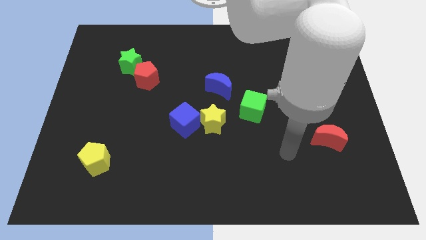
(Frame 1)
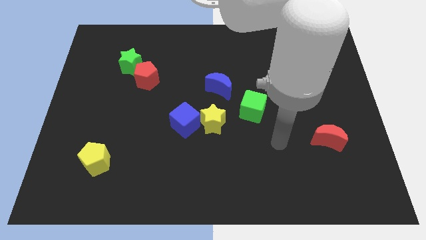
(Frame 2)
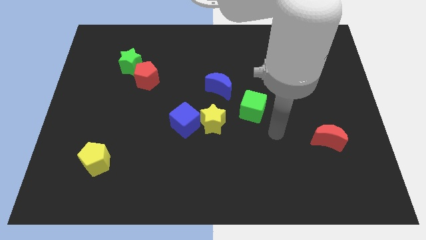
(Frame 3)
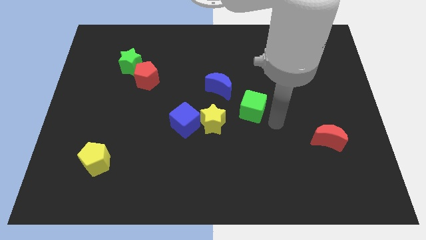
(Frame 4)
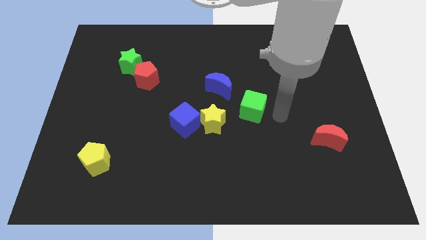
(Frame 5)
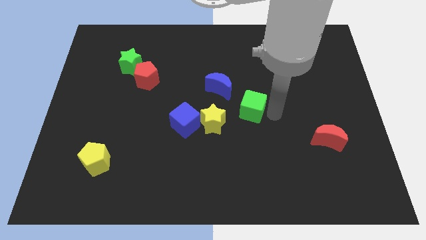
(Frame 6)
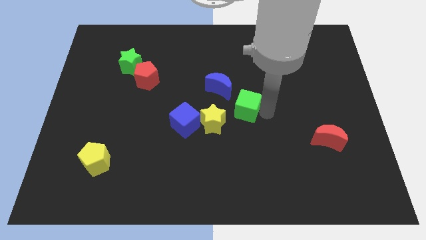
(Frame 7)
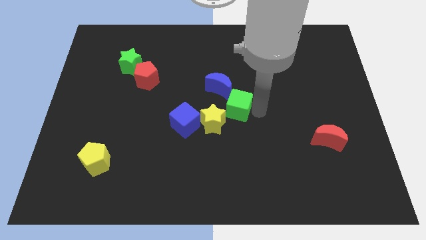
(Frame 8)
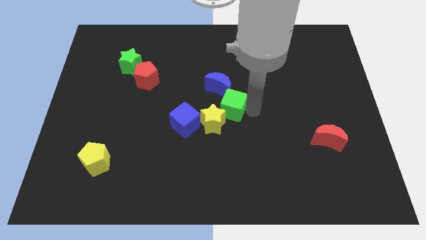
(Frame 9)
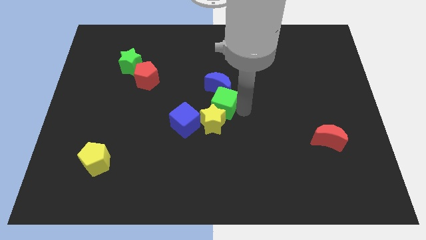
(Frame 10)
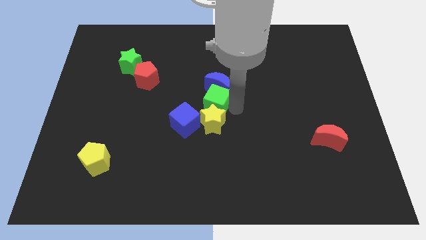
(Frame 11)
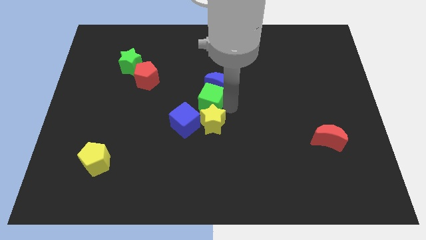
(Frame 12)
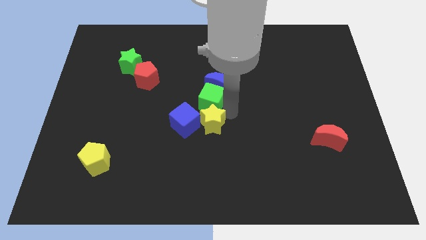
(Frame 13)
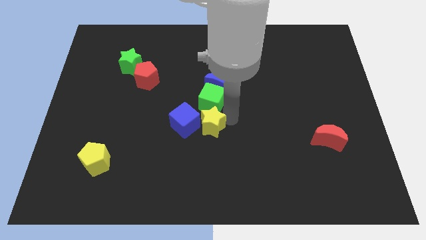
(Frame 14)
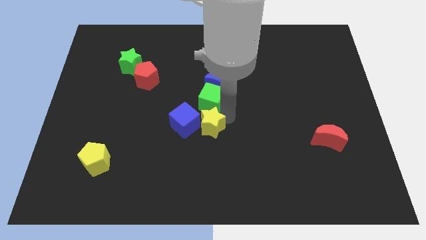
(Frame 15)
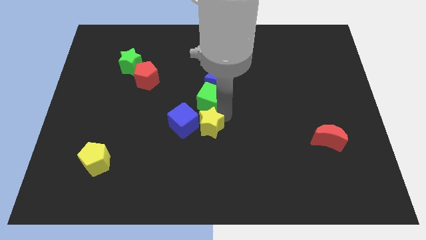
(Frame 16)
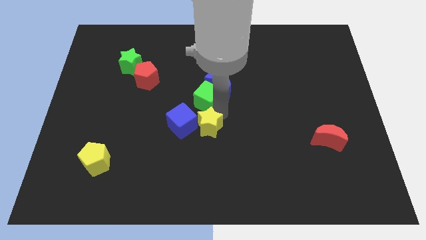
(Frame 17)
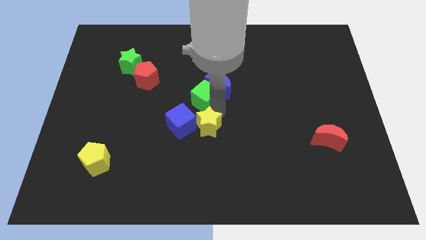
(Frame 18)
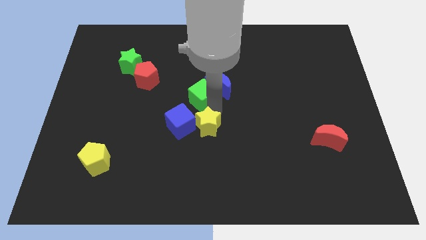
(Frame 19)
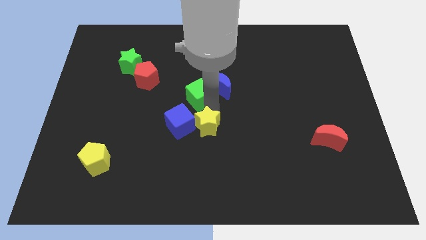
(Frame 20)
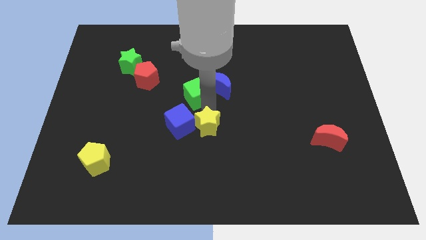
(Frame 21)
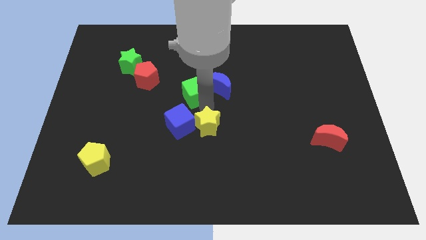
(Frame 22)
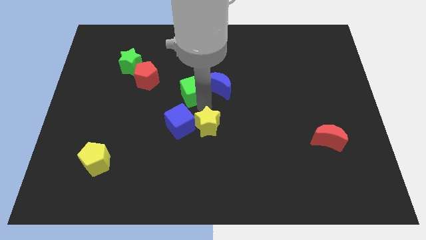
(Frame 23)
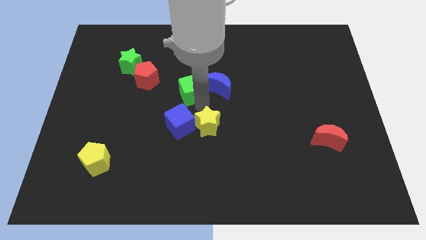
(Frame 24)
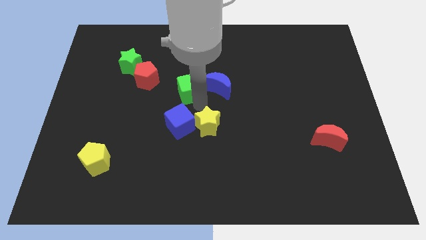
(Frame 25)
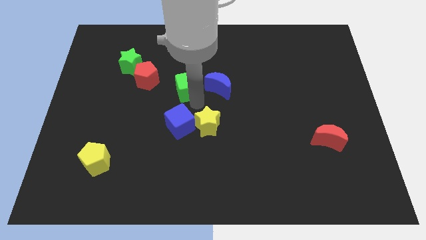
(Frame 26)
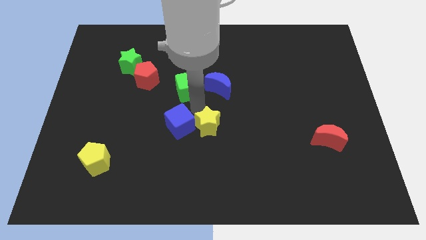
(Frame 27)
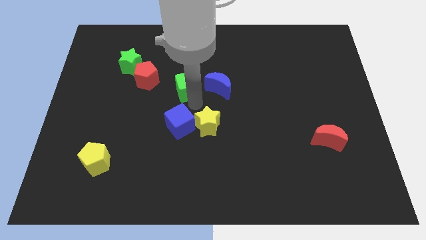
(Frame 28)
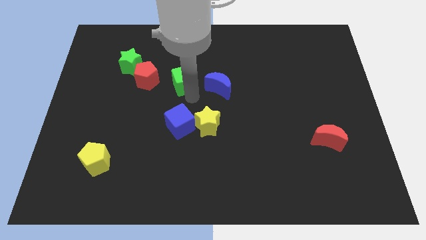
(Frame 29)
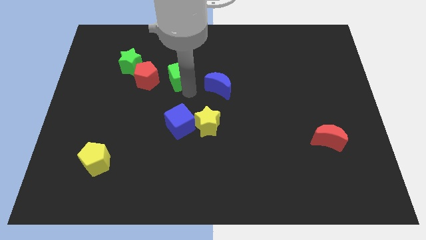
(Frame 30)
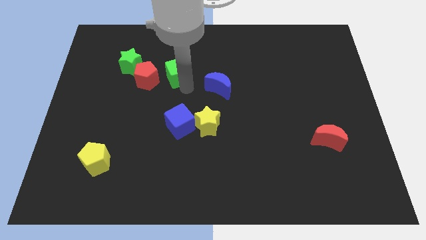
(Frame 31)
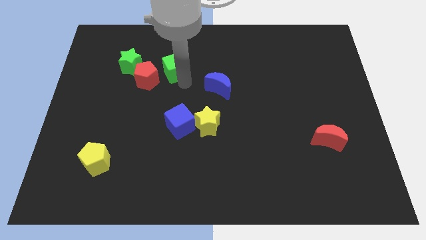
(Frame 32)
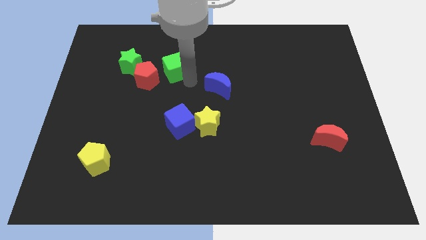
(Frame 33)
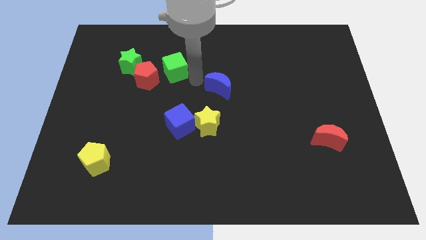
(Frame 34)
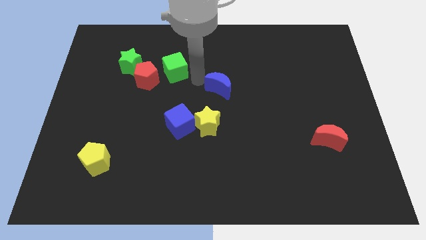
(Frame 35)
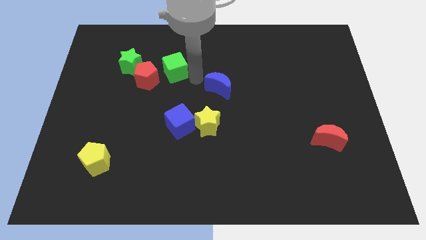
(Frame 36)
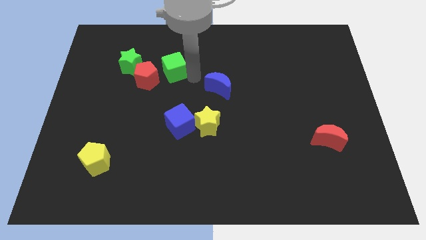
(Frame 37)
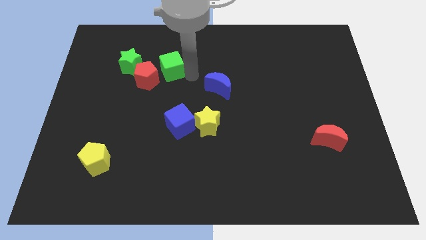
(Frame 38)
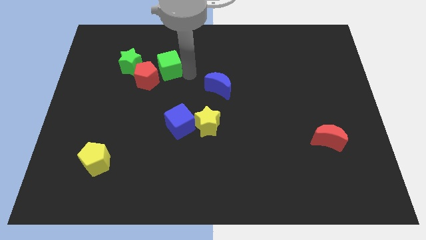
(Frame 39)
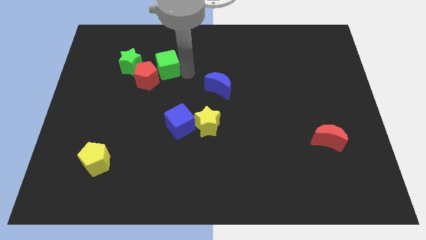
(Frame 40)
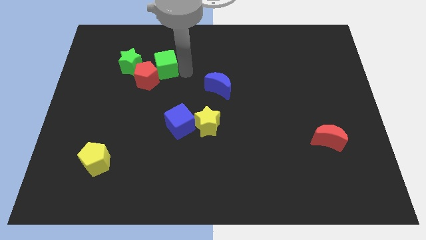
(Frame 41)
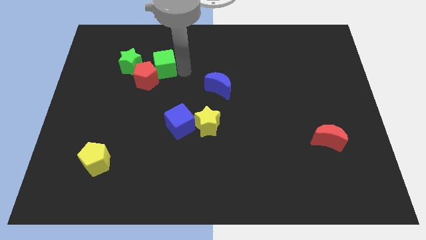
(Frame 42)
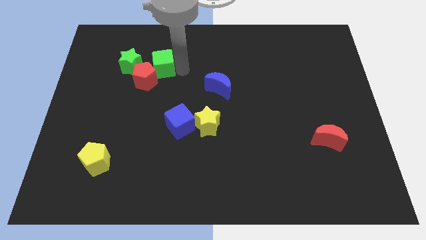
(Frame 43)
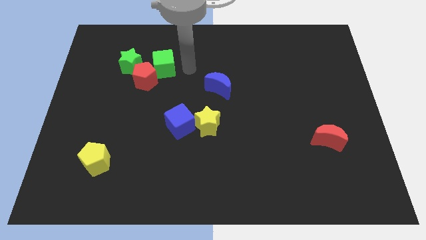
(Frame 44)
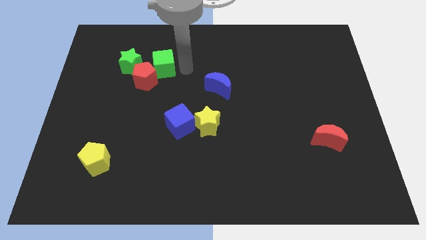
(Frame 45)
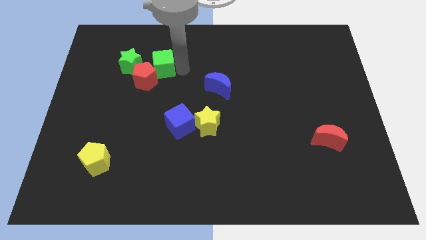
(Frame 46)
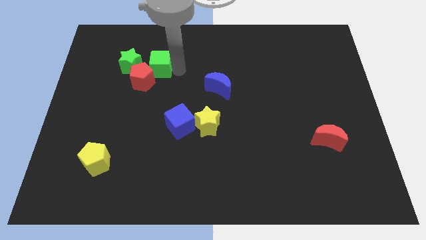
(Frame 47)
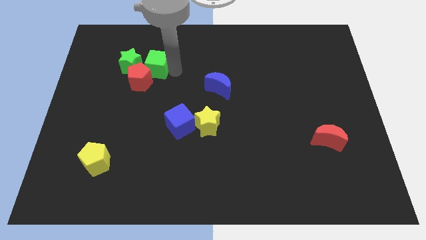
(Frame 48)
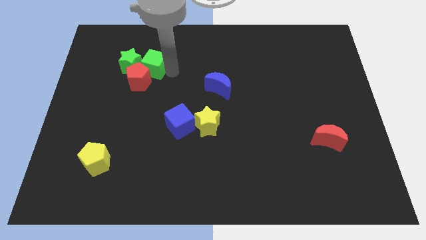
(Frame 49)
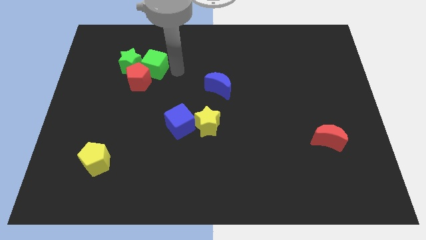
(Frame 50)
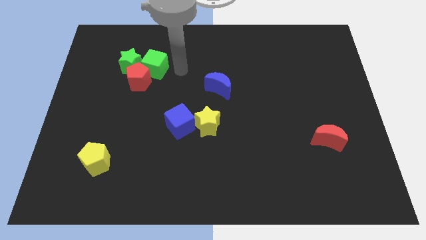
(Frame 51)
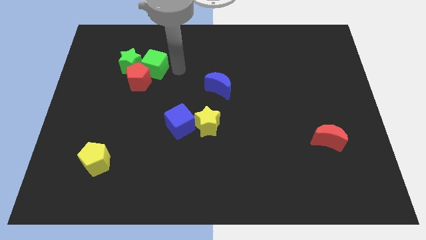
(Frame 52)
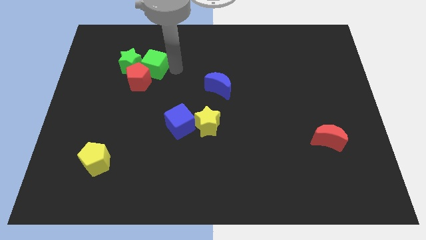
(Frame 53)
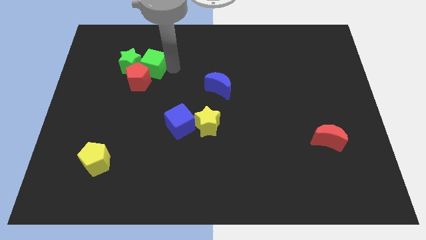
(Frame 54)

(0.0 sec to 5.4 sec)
slide the green cube towards the green star

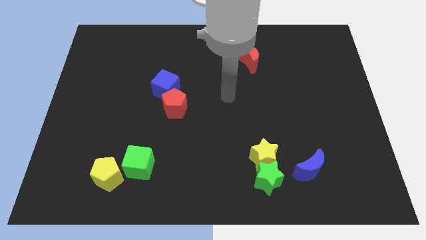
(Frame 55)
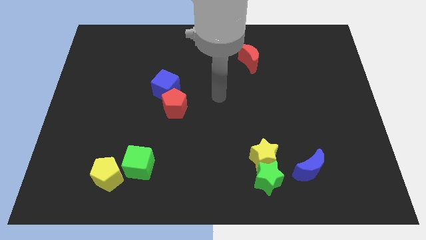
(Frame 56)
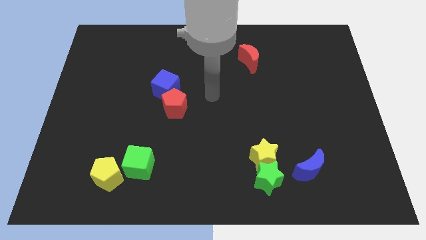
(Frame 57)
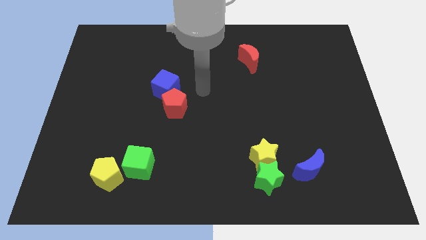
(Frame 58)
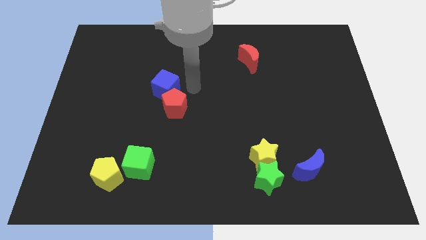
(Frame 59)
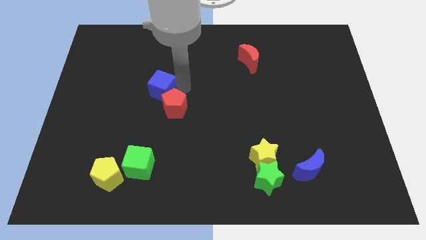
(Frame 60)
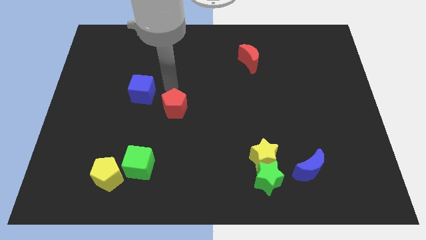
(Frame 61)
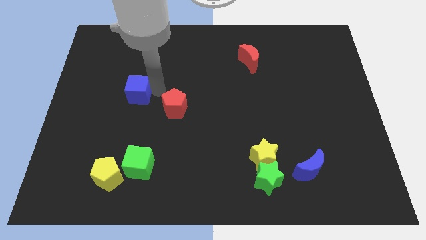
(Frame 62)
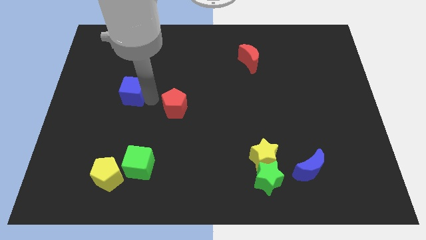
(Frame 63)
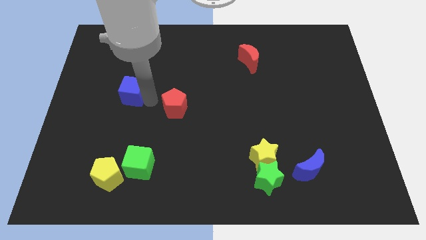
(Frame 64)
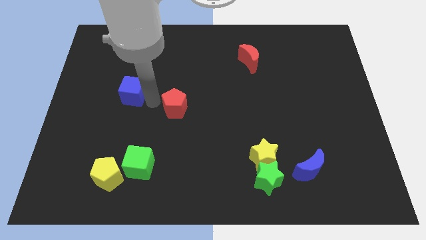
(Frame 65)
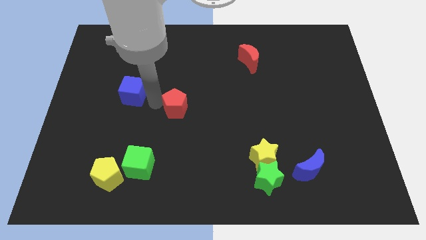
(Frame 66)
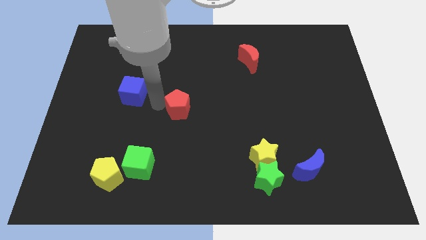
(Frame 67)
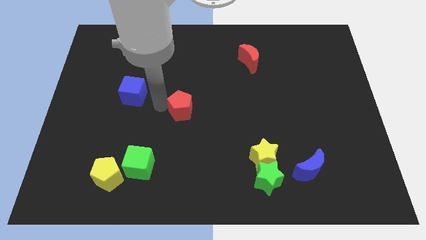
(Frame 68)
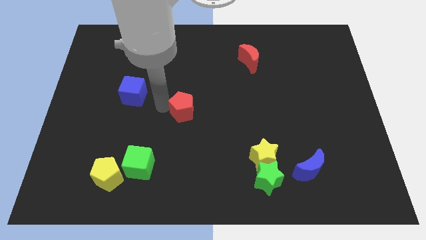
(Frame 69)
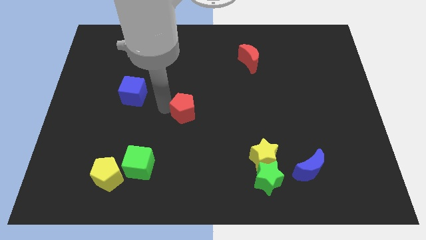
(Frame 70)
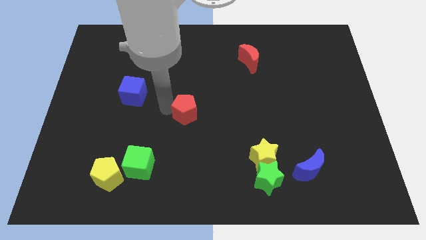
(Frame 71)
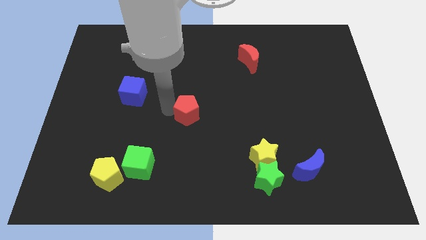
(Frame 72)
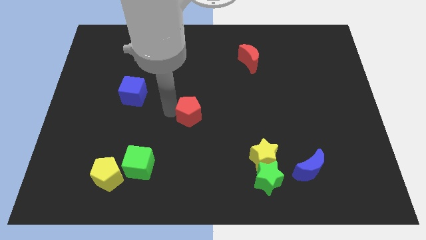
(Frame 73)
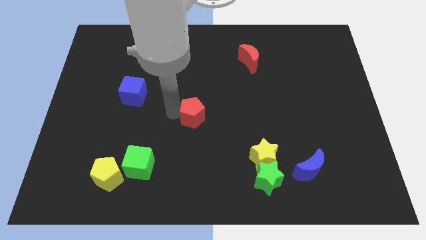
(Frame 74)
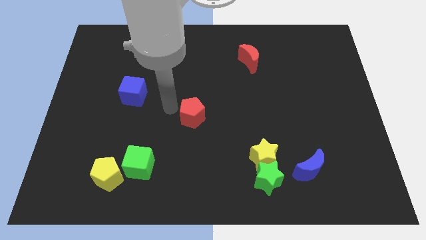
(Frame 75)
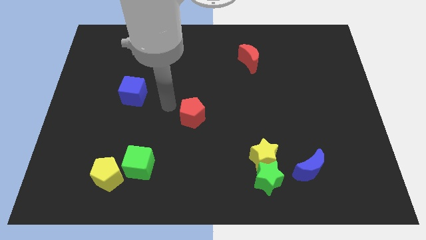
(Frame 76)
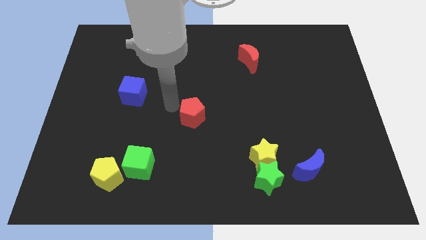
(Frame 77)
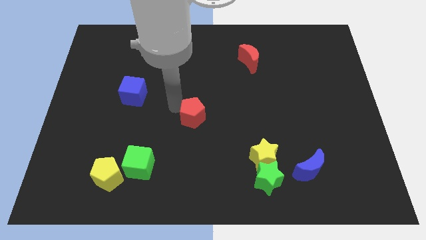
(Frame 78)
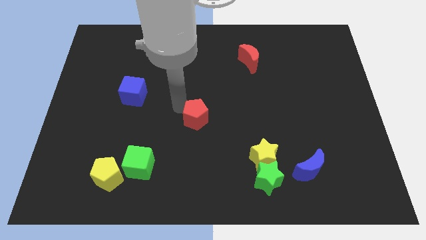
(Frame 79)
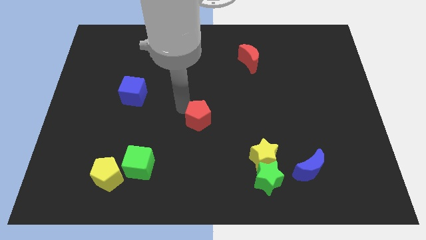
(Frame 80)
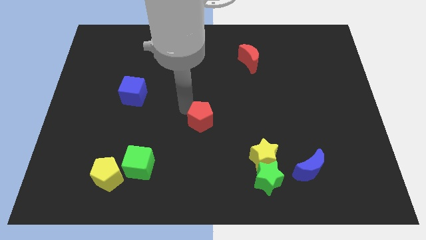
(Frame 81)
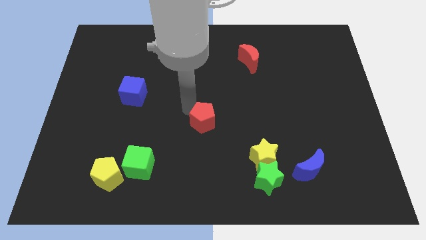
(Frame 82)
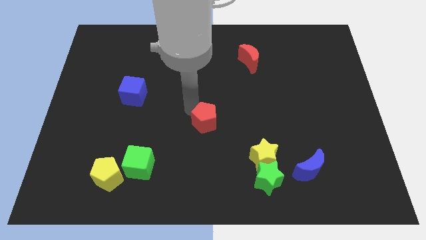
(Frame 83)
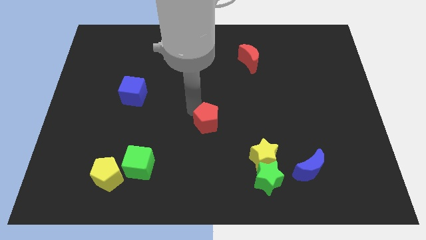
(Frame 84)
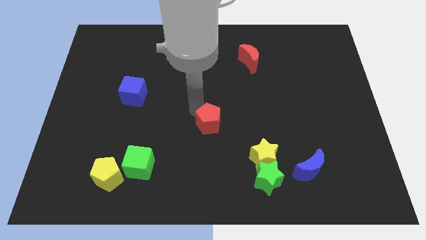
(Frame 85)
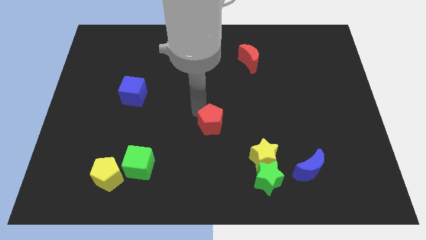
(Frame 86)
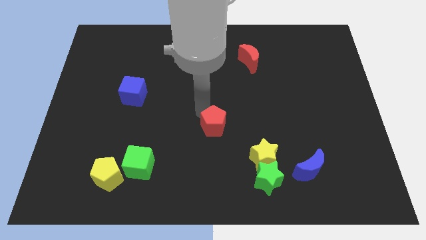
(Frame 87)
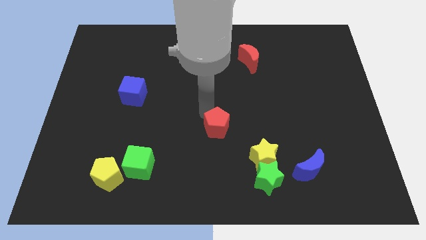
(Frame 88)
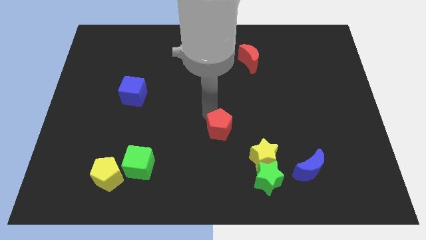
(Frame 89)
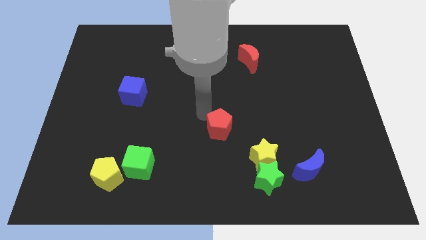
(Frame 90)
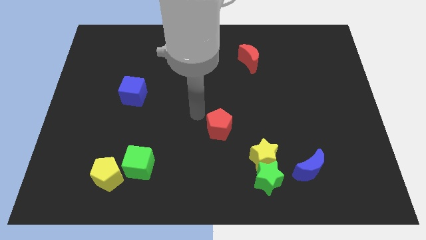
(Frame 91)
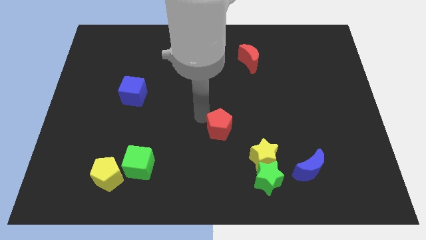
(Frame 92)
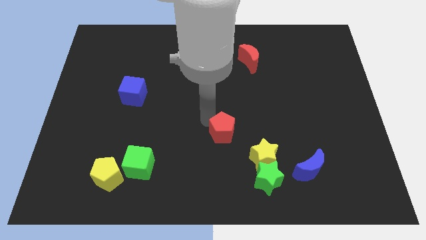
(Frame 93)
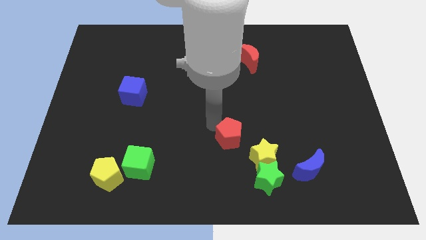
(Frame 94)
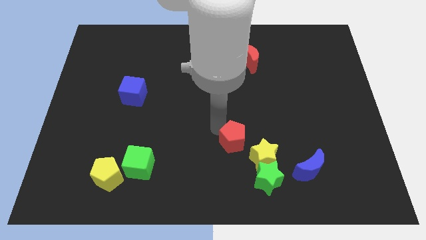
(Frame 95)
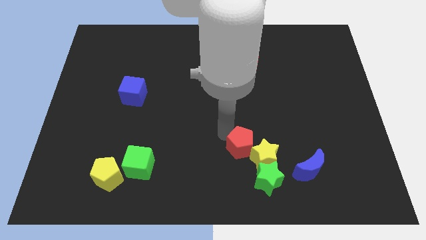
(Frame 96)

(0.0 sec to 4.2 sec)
put the red pentagon close to the yellow star
